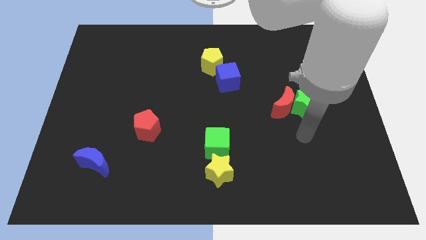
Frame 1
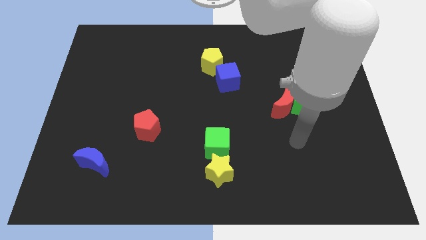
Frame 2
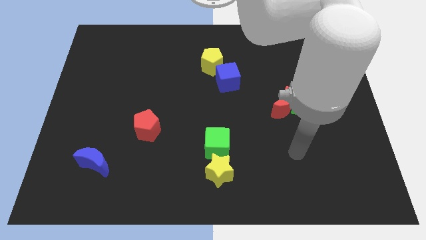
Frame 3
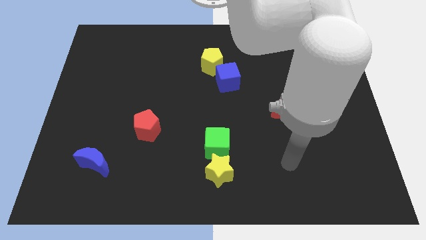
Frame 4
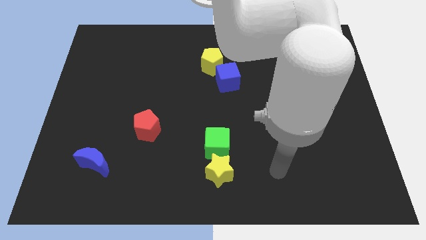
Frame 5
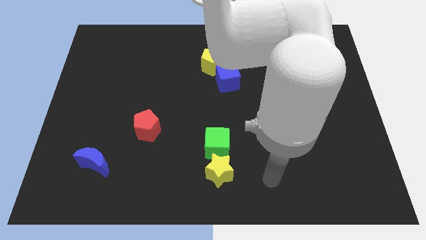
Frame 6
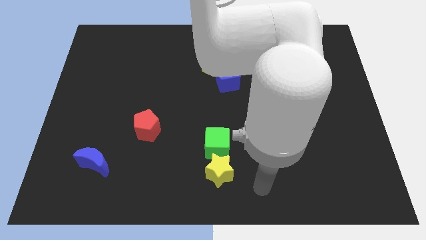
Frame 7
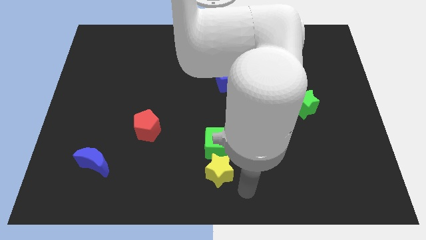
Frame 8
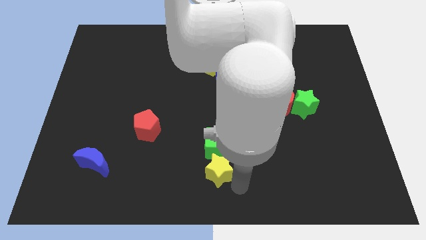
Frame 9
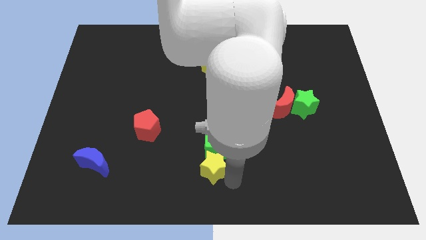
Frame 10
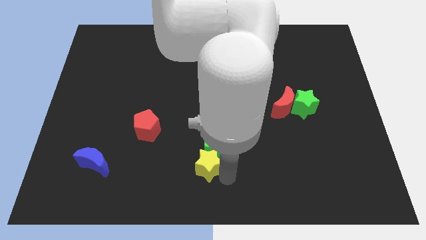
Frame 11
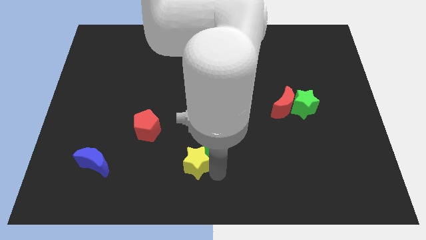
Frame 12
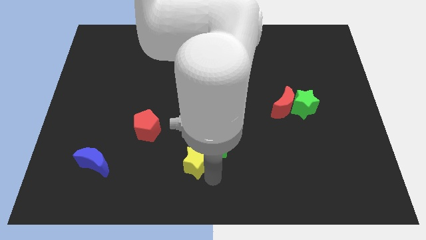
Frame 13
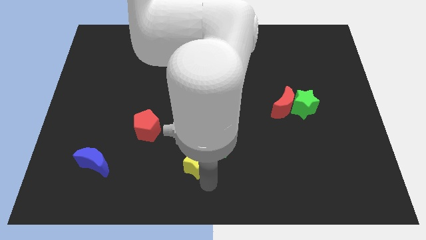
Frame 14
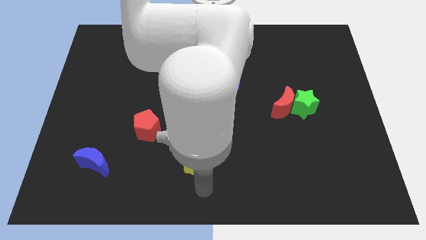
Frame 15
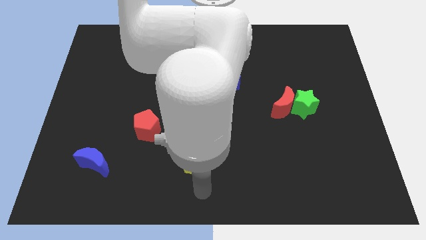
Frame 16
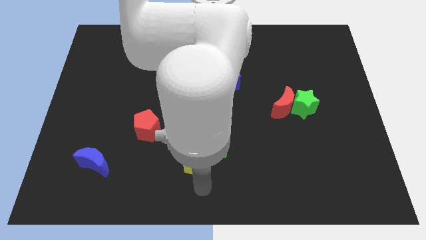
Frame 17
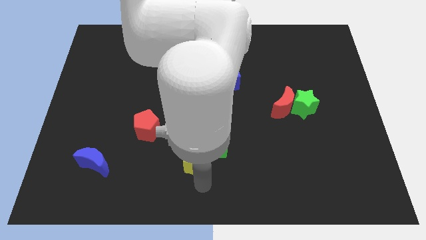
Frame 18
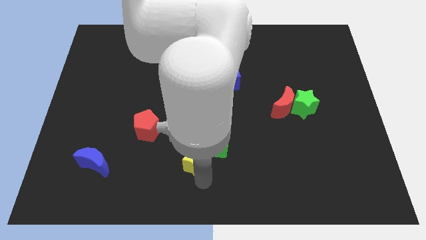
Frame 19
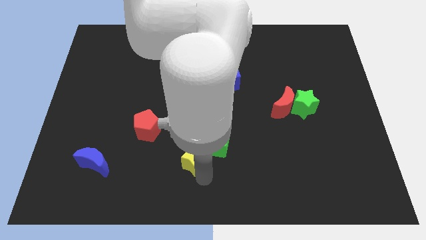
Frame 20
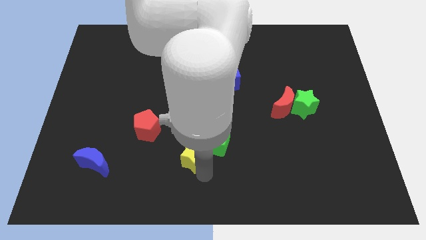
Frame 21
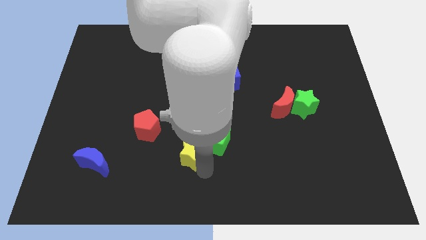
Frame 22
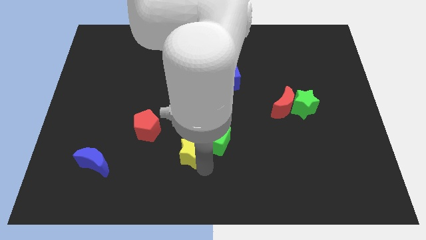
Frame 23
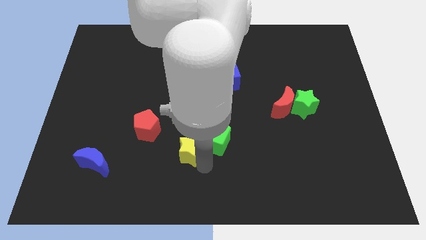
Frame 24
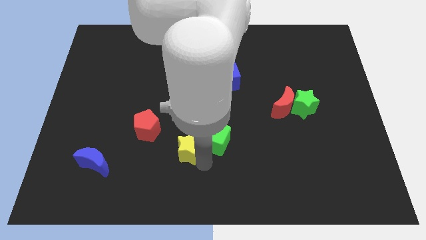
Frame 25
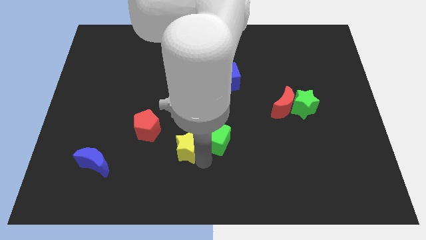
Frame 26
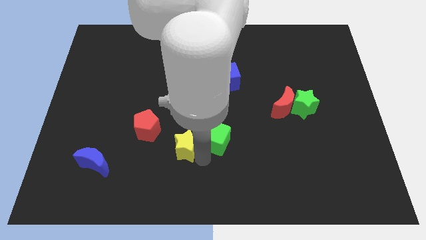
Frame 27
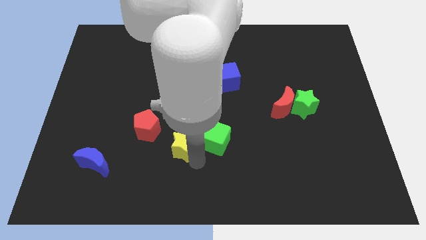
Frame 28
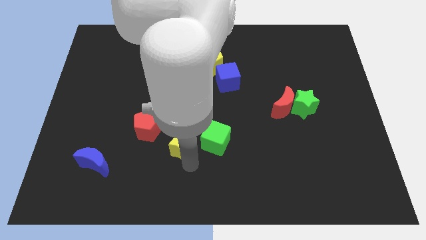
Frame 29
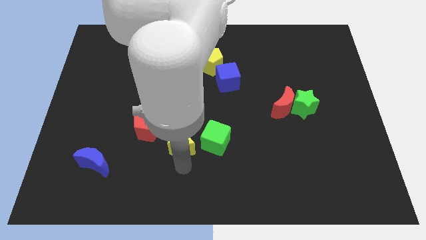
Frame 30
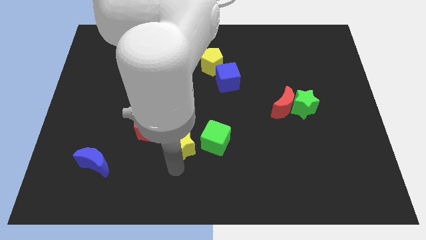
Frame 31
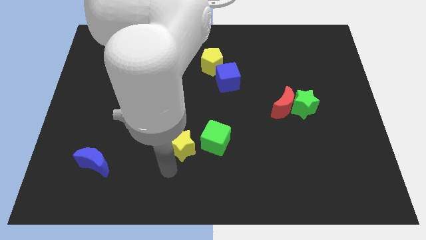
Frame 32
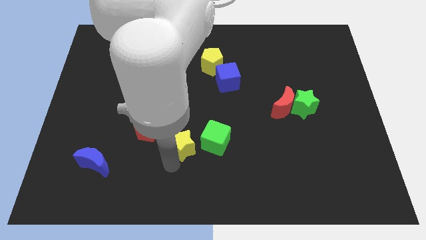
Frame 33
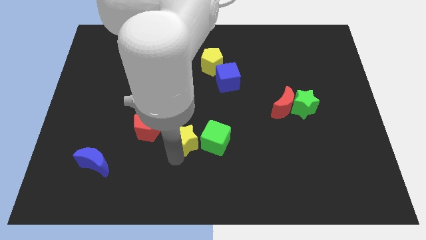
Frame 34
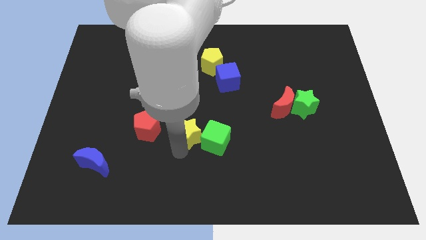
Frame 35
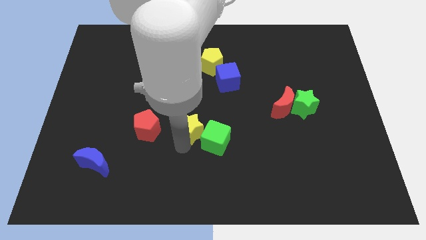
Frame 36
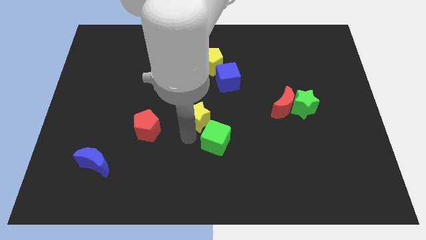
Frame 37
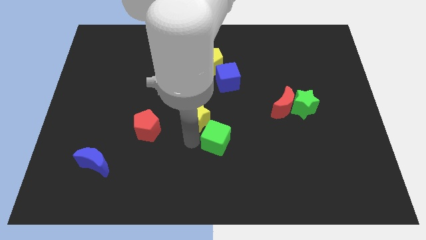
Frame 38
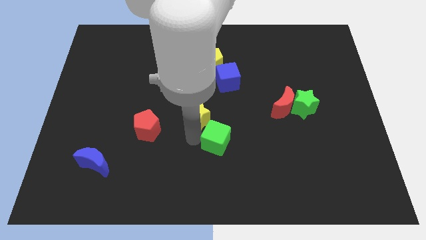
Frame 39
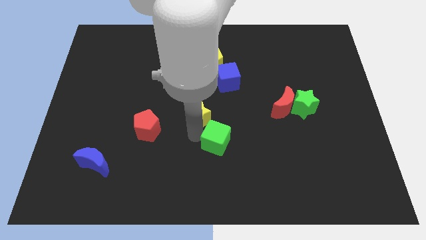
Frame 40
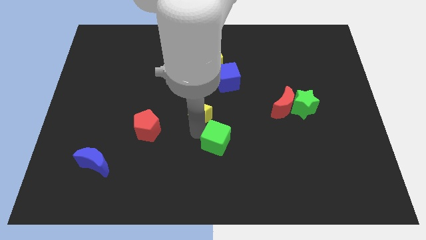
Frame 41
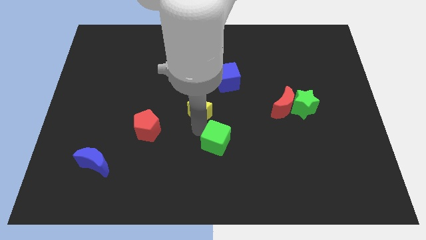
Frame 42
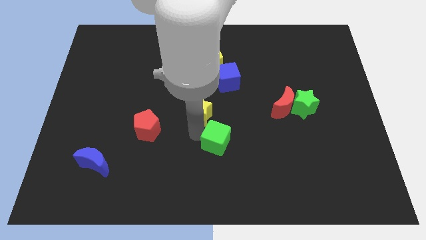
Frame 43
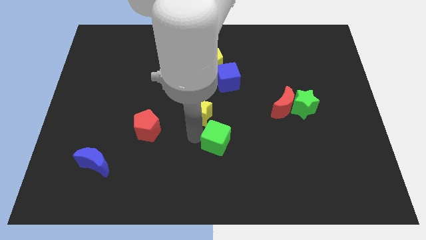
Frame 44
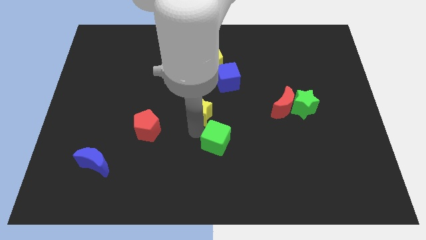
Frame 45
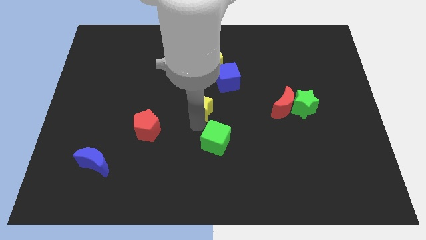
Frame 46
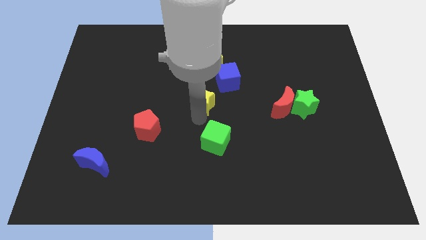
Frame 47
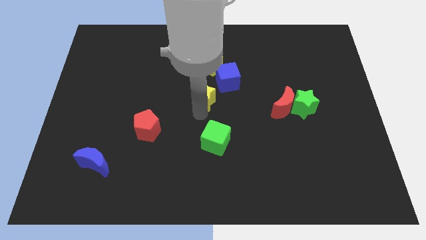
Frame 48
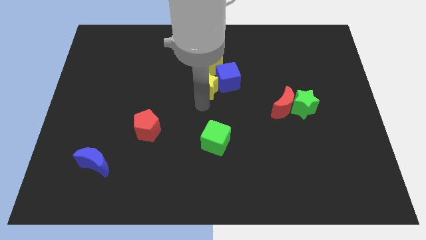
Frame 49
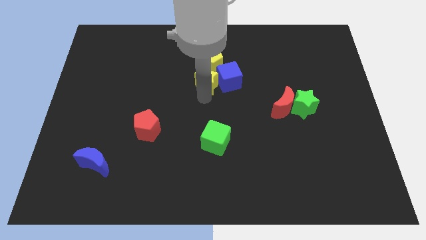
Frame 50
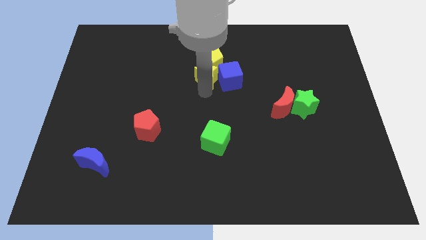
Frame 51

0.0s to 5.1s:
slide the yellow star to the yellow pentagon
